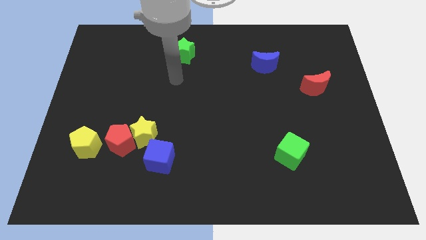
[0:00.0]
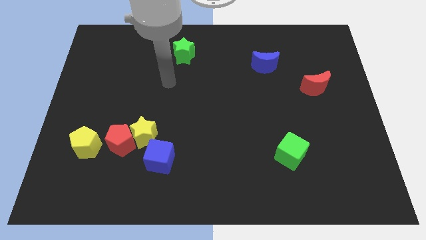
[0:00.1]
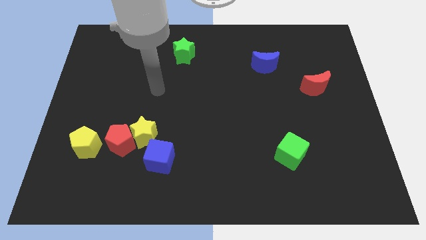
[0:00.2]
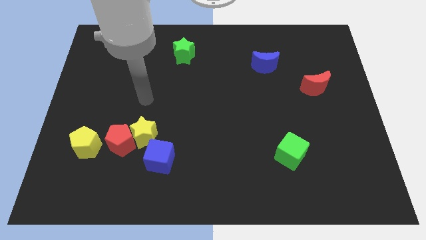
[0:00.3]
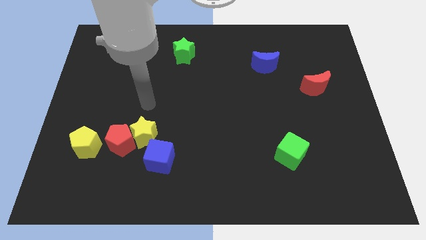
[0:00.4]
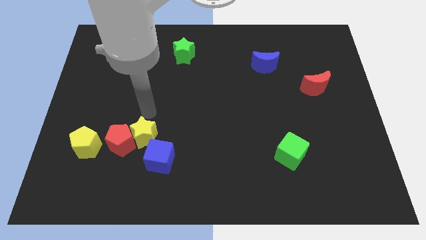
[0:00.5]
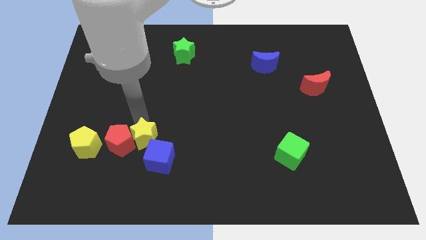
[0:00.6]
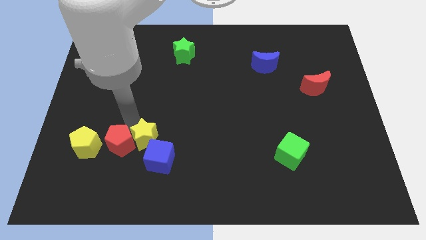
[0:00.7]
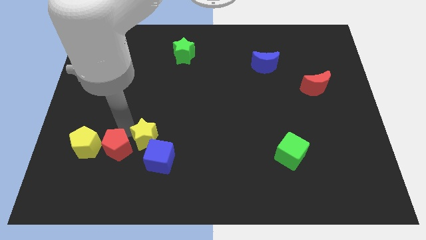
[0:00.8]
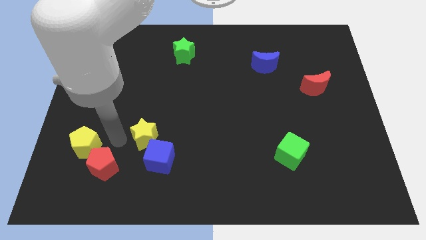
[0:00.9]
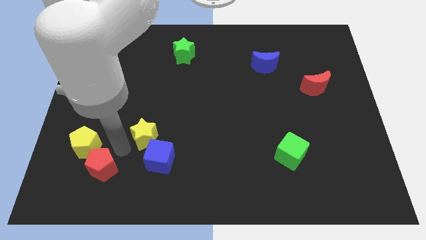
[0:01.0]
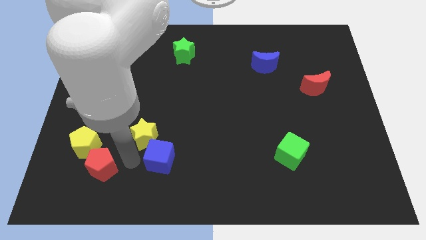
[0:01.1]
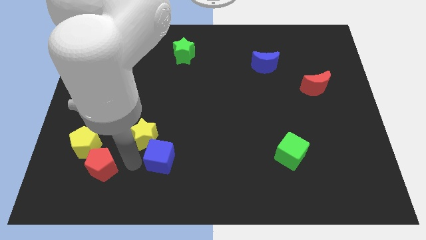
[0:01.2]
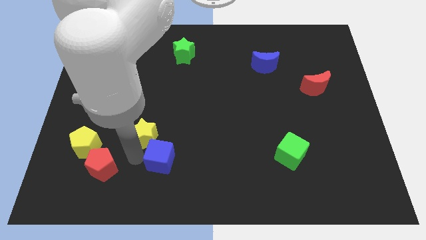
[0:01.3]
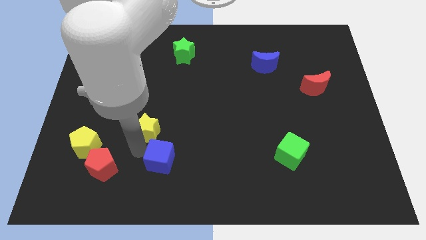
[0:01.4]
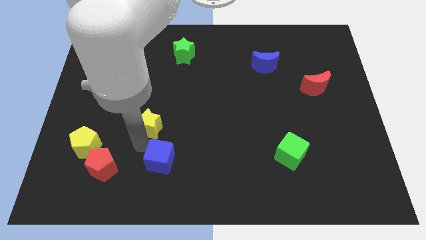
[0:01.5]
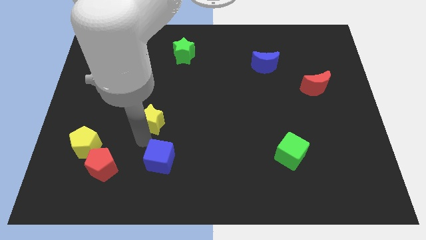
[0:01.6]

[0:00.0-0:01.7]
move the yellow star away from the red pentagon and blue cube

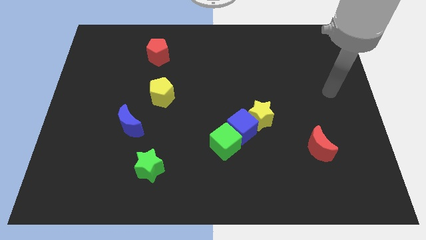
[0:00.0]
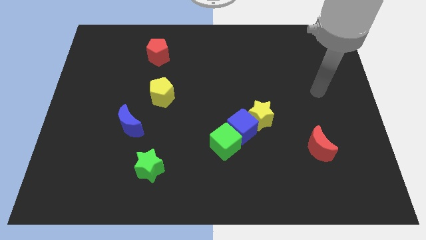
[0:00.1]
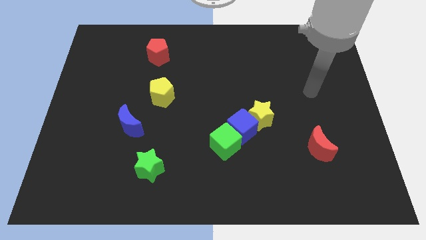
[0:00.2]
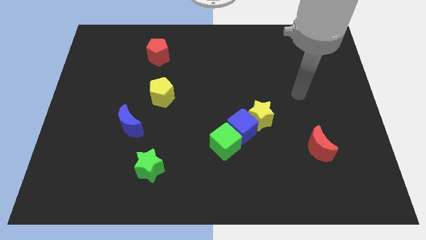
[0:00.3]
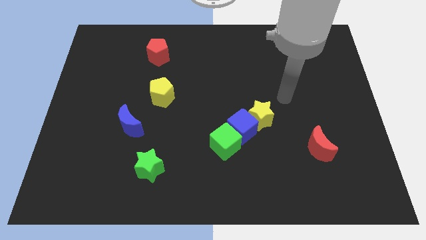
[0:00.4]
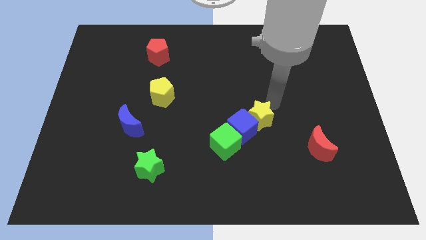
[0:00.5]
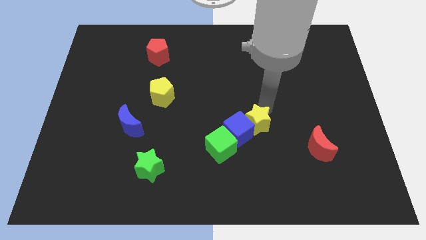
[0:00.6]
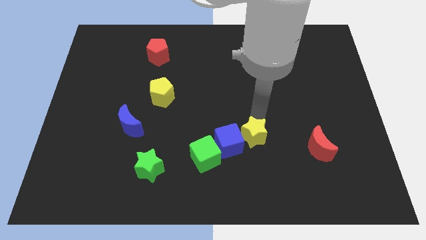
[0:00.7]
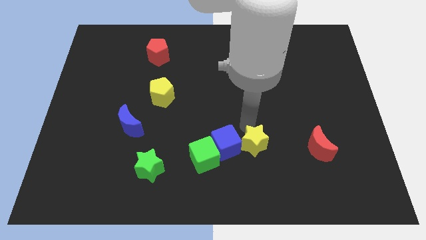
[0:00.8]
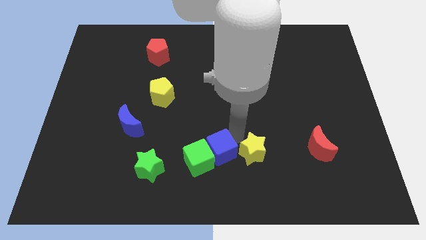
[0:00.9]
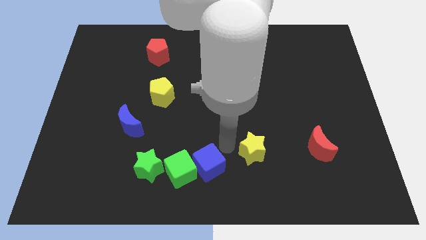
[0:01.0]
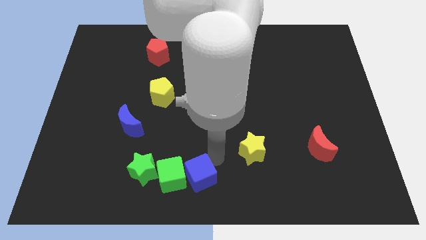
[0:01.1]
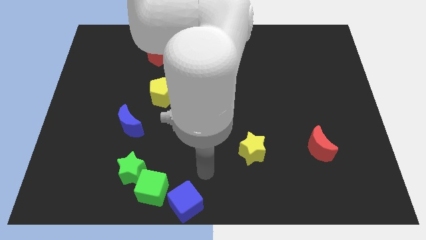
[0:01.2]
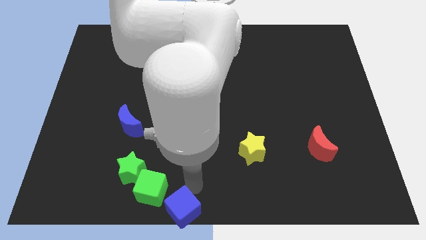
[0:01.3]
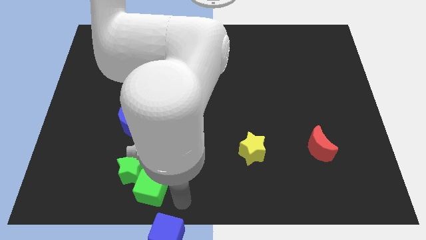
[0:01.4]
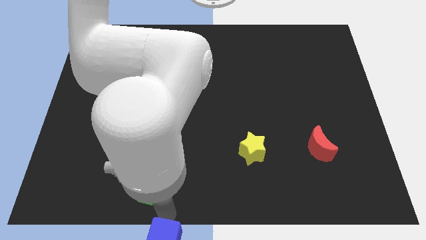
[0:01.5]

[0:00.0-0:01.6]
pull the green cube apart from the blue cube

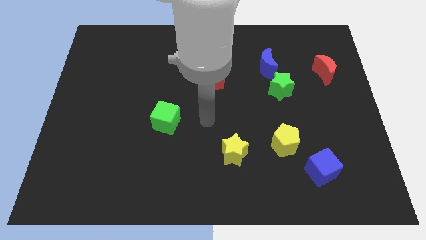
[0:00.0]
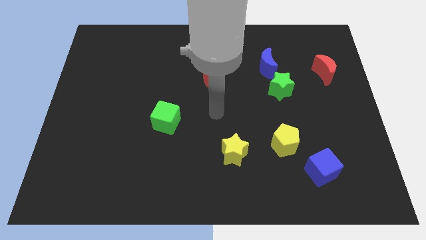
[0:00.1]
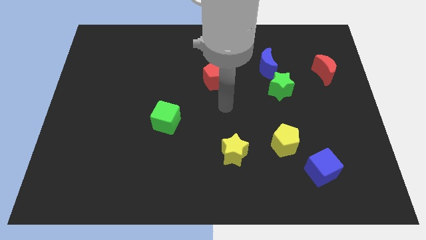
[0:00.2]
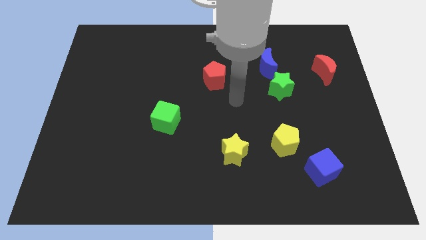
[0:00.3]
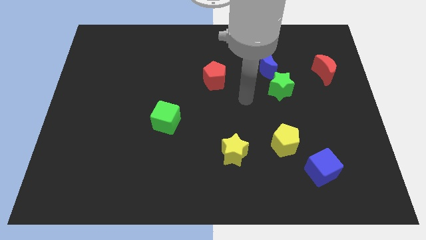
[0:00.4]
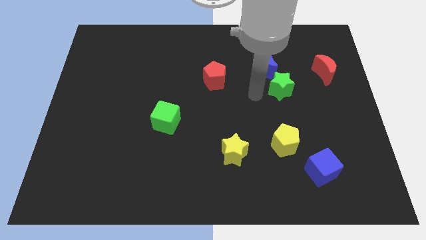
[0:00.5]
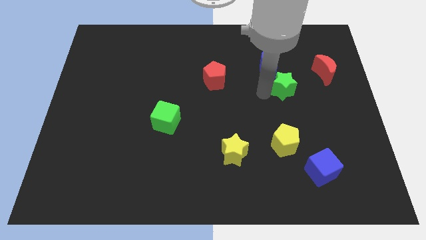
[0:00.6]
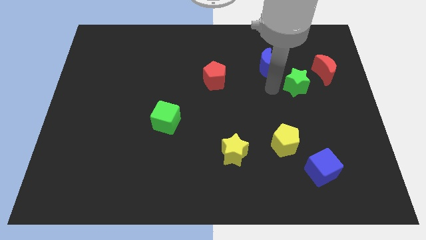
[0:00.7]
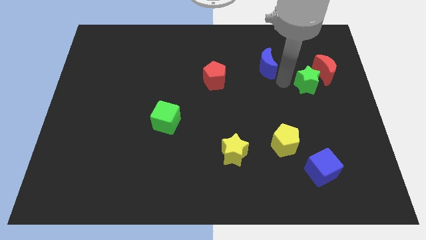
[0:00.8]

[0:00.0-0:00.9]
separate the blue moon from the green star

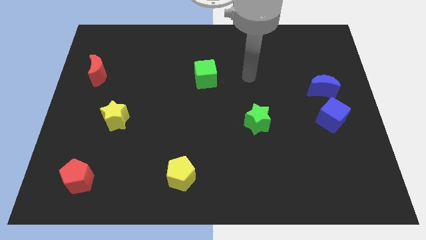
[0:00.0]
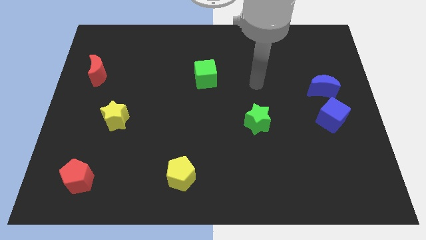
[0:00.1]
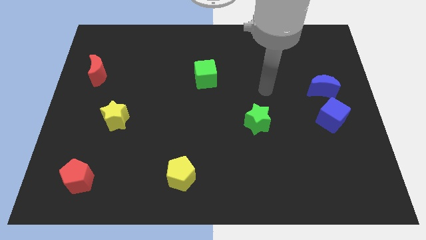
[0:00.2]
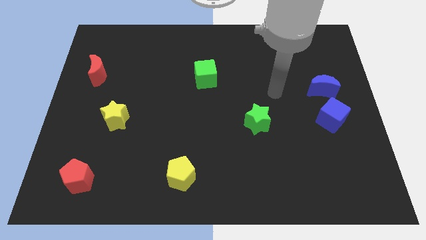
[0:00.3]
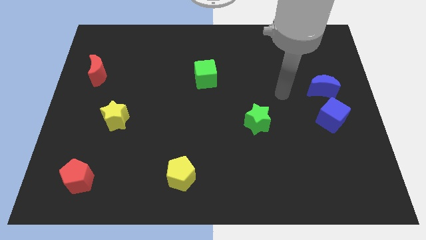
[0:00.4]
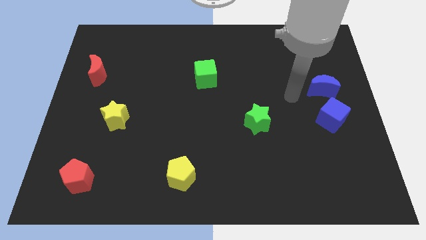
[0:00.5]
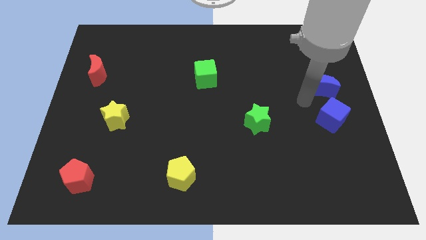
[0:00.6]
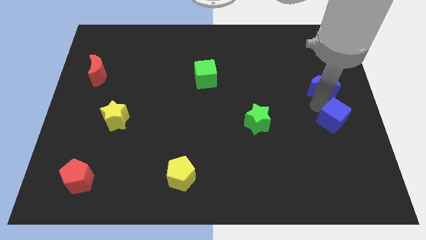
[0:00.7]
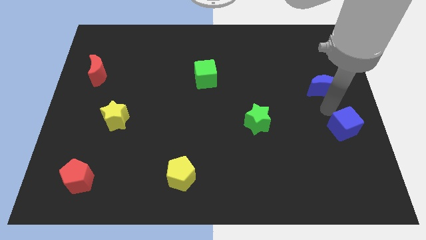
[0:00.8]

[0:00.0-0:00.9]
move the blue moon away from the blue cube

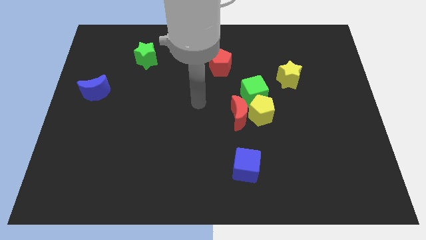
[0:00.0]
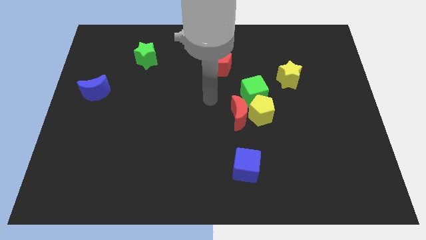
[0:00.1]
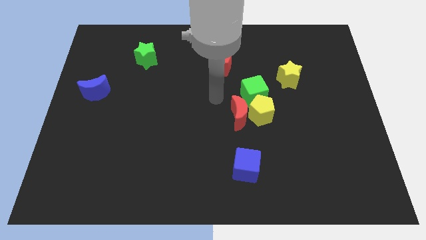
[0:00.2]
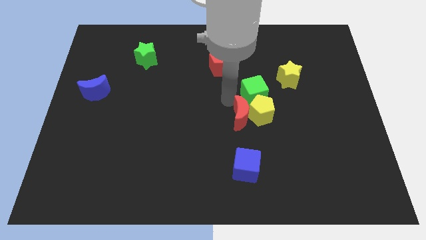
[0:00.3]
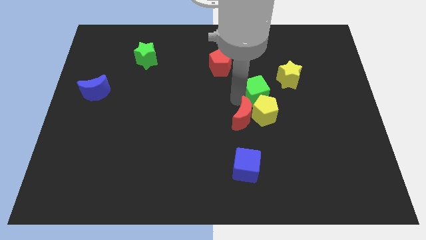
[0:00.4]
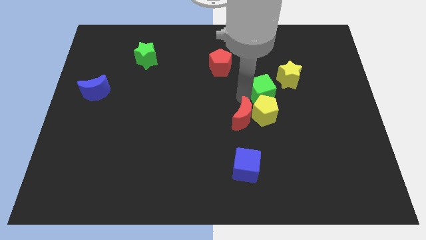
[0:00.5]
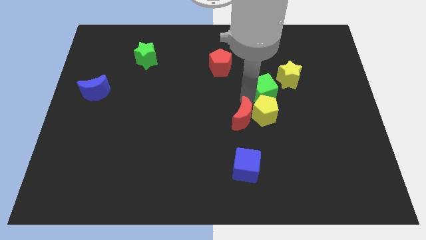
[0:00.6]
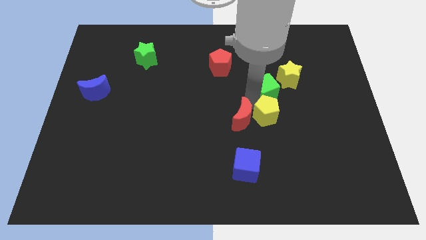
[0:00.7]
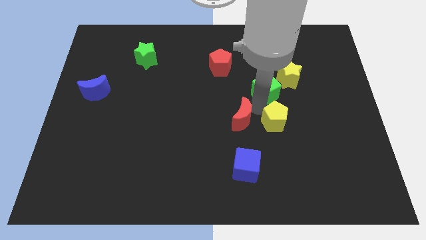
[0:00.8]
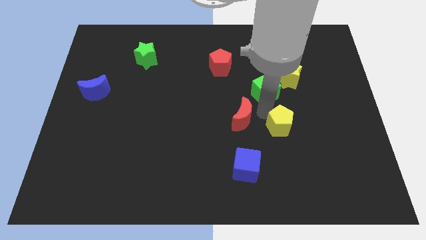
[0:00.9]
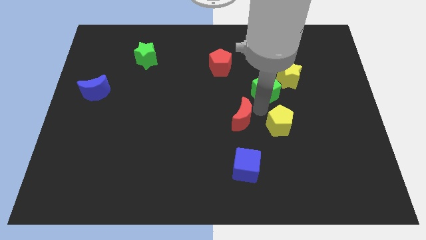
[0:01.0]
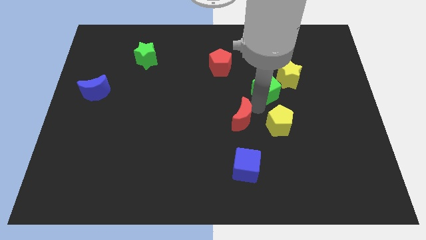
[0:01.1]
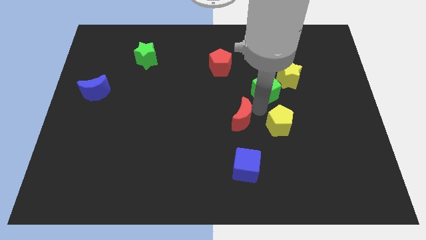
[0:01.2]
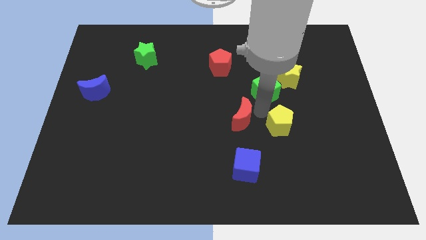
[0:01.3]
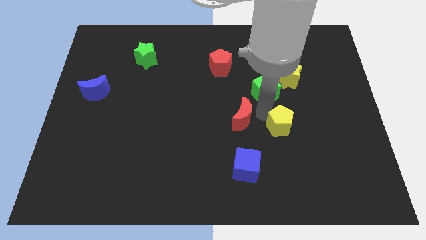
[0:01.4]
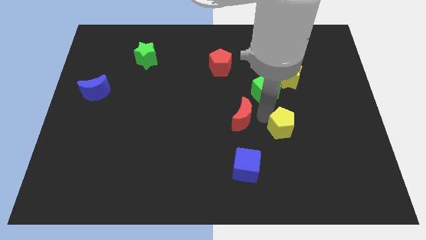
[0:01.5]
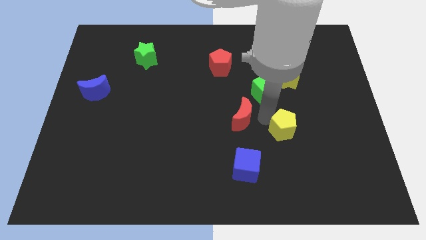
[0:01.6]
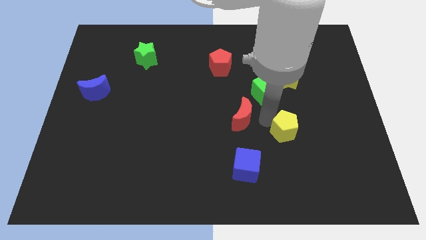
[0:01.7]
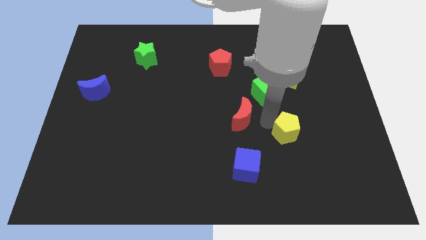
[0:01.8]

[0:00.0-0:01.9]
pull the yellow pentagon apart from the red moon and green cube

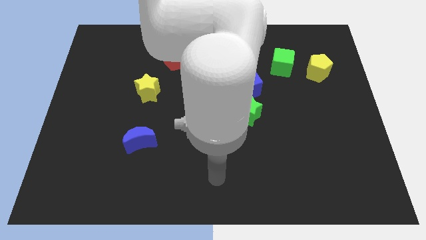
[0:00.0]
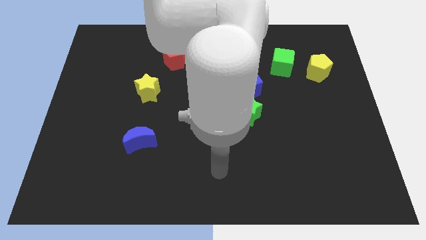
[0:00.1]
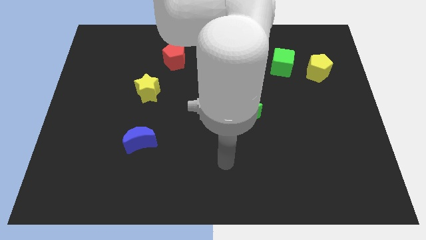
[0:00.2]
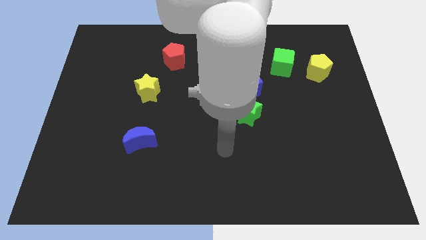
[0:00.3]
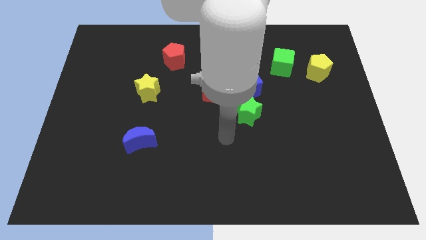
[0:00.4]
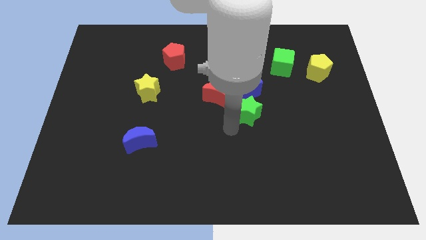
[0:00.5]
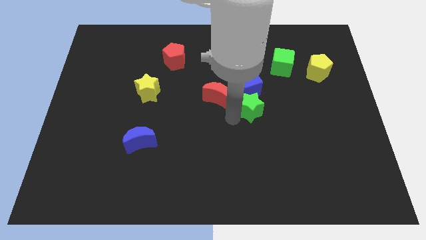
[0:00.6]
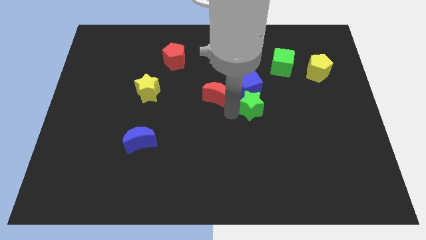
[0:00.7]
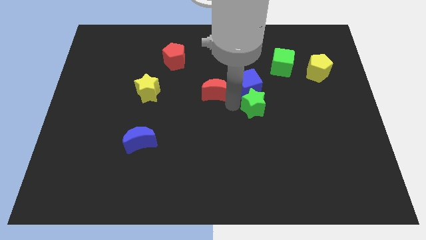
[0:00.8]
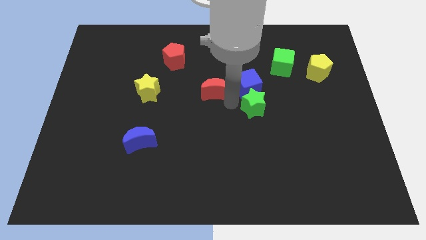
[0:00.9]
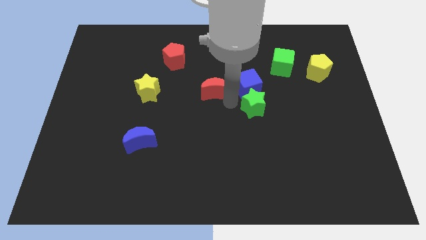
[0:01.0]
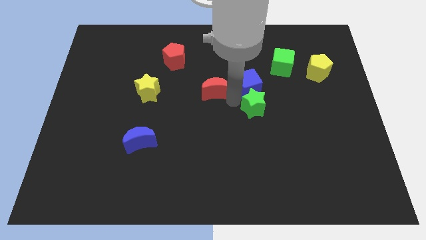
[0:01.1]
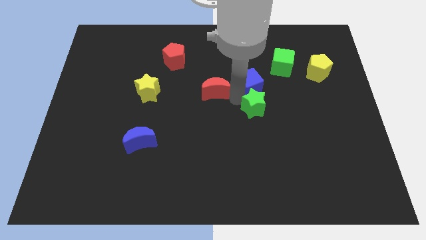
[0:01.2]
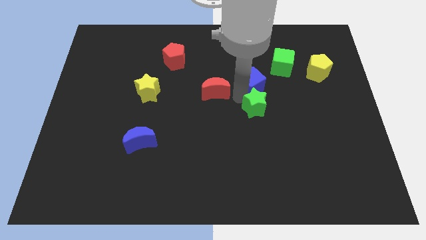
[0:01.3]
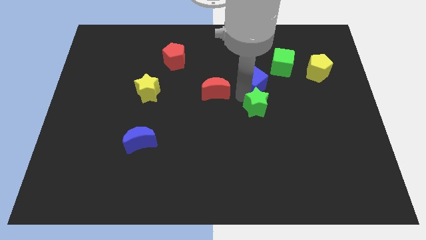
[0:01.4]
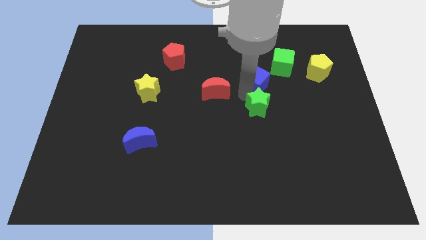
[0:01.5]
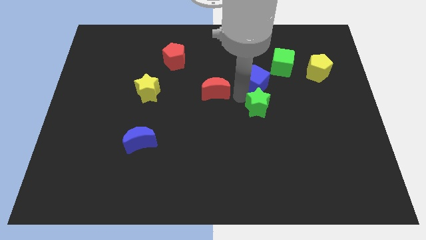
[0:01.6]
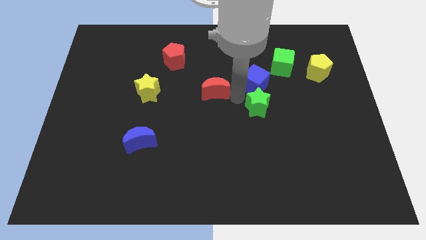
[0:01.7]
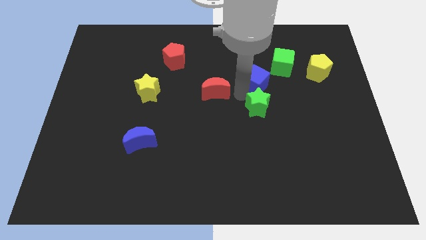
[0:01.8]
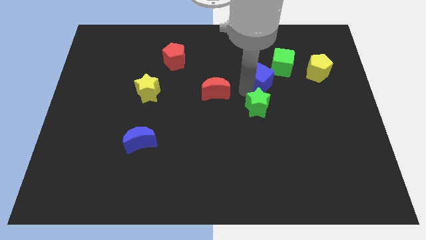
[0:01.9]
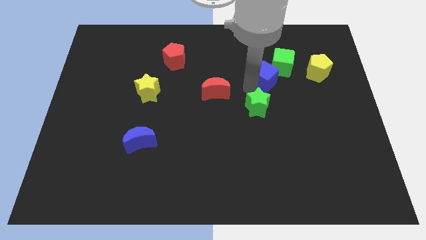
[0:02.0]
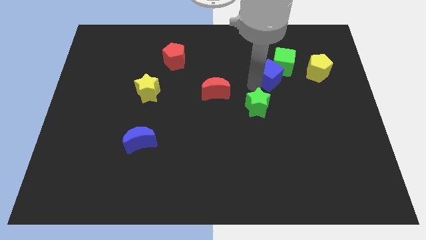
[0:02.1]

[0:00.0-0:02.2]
move the blue cube away from the green star and red moon
